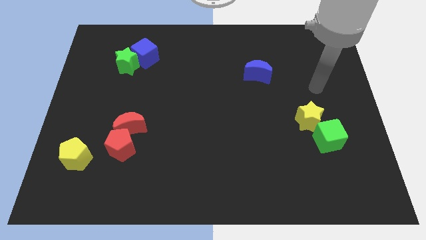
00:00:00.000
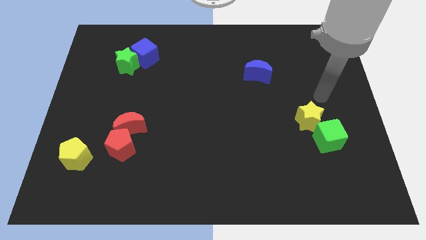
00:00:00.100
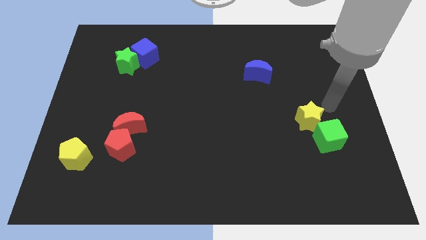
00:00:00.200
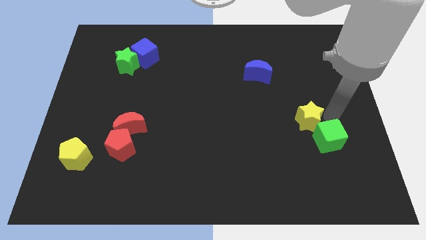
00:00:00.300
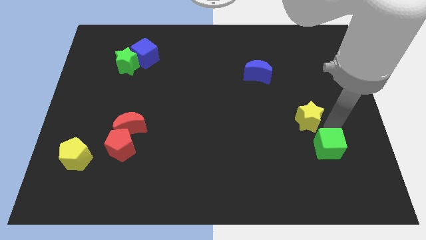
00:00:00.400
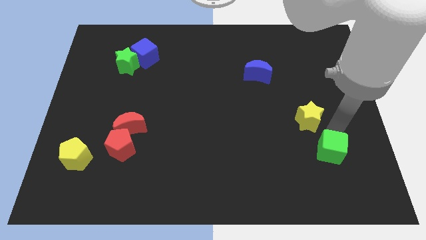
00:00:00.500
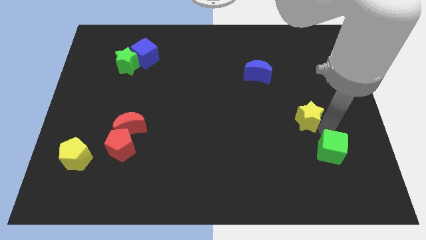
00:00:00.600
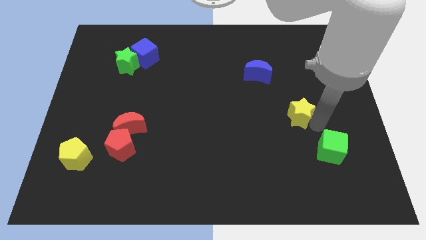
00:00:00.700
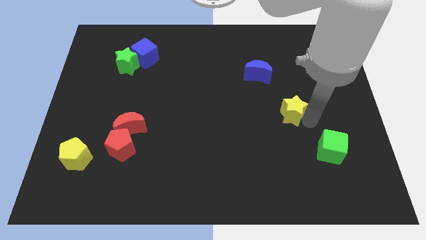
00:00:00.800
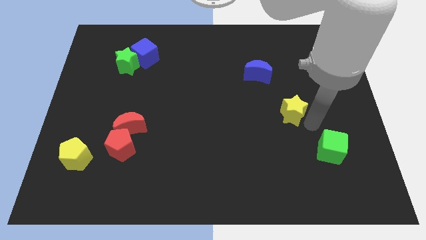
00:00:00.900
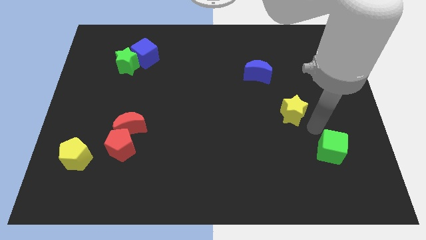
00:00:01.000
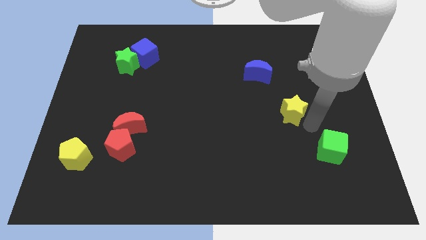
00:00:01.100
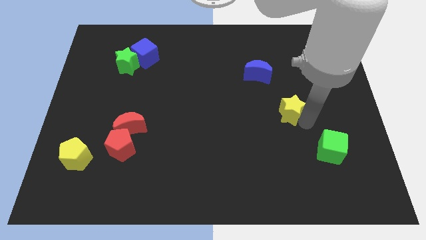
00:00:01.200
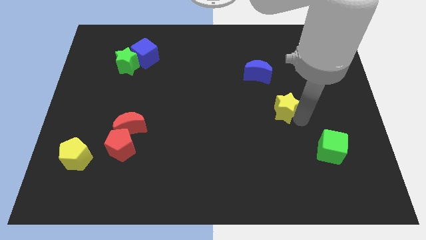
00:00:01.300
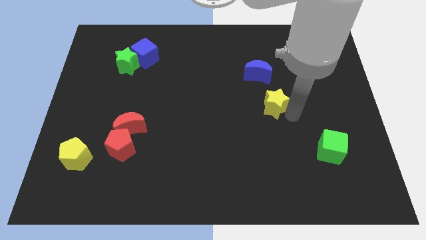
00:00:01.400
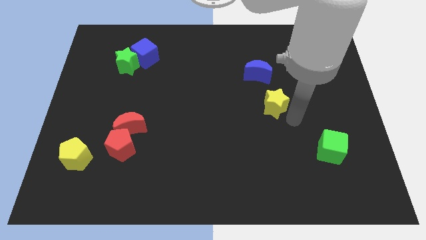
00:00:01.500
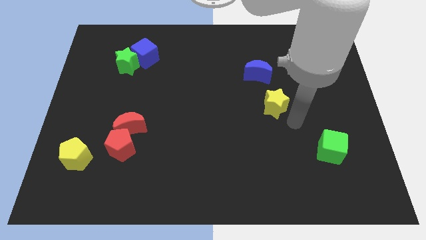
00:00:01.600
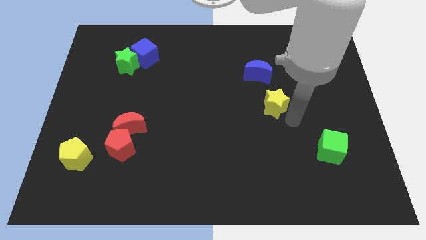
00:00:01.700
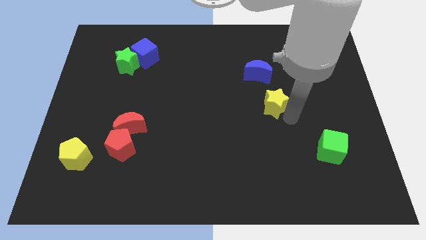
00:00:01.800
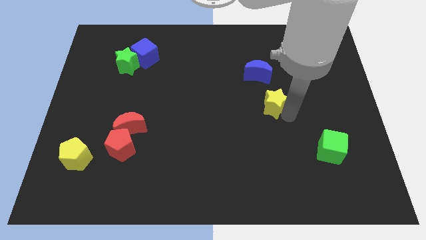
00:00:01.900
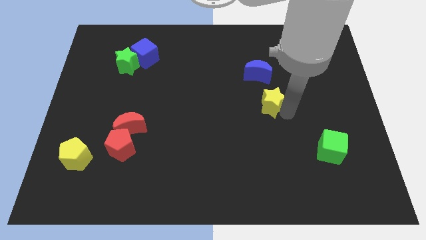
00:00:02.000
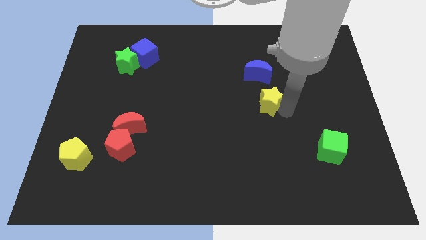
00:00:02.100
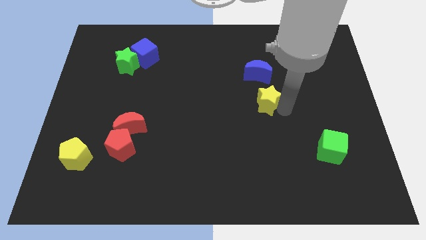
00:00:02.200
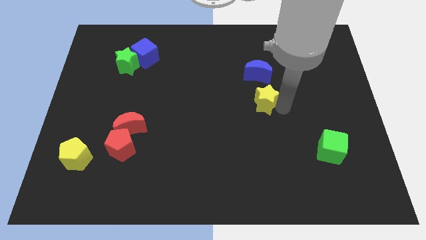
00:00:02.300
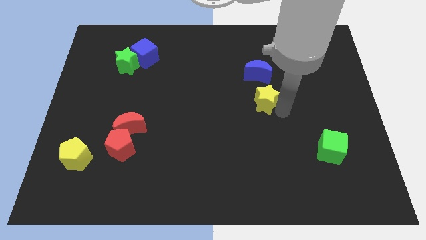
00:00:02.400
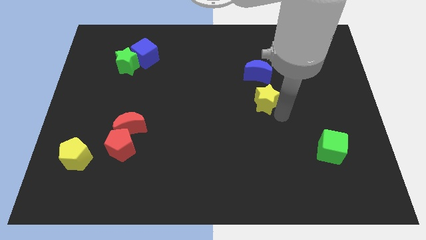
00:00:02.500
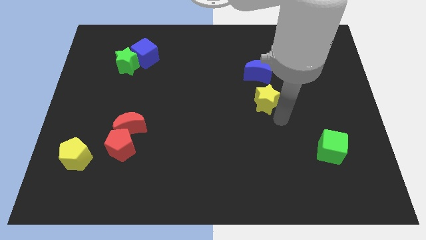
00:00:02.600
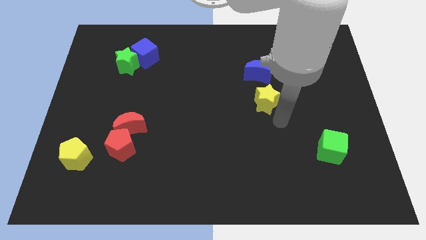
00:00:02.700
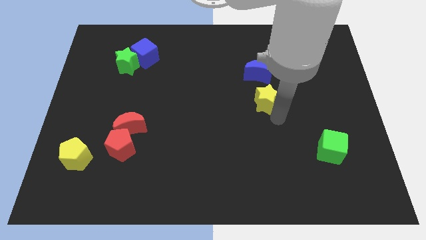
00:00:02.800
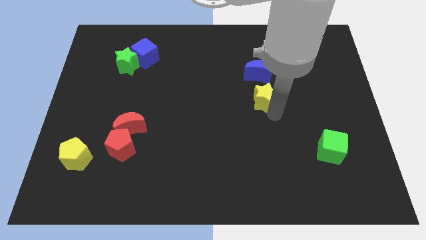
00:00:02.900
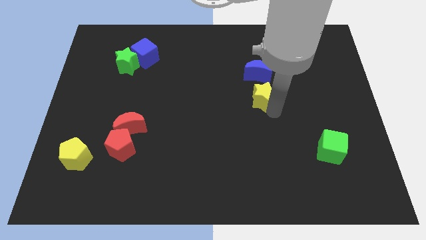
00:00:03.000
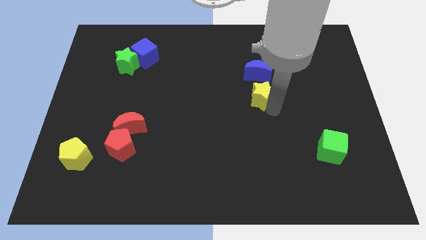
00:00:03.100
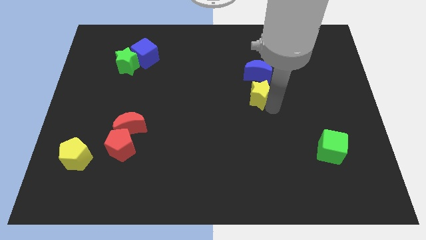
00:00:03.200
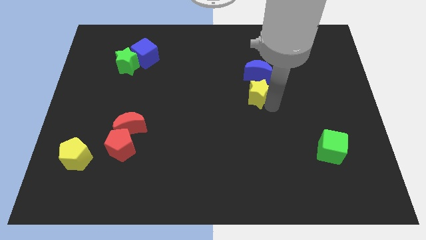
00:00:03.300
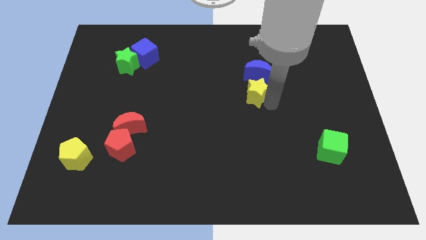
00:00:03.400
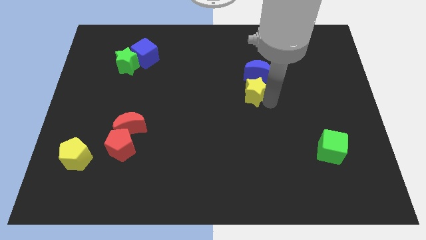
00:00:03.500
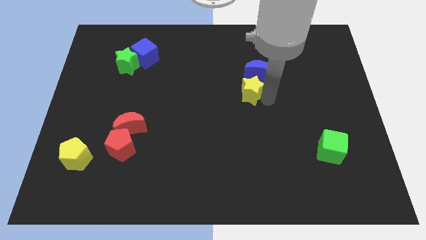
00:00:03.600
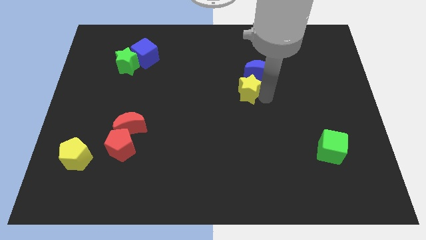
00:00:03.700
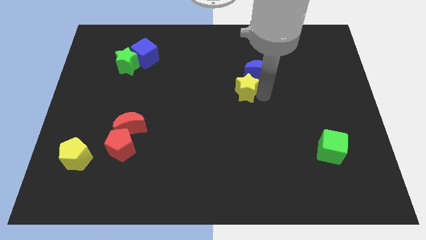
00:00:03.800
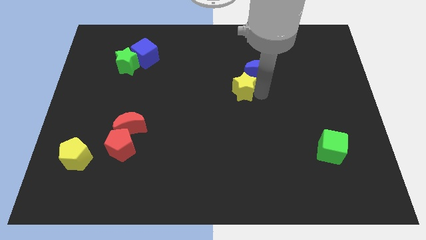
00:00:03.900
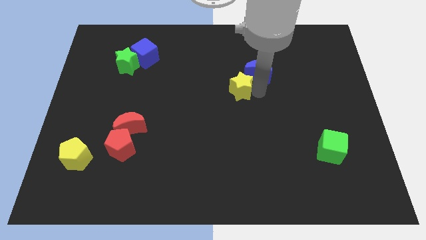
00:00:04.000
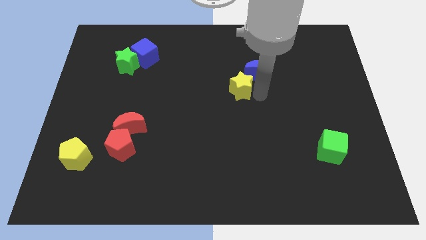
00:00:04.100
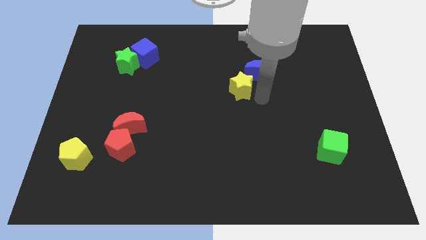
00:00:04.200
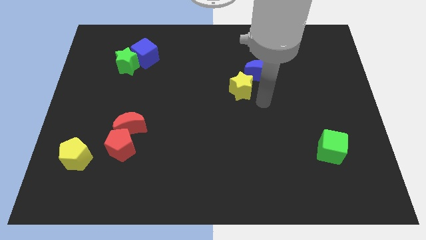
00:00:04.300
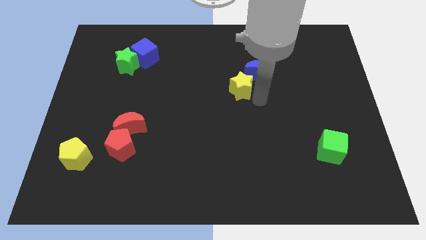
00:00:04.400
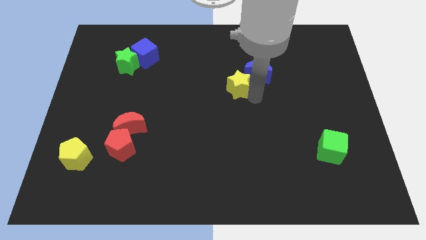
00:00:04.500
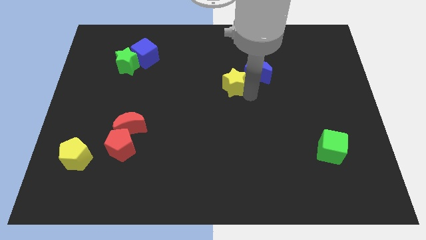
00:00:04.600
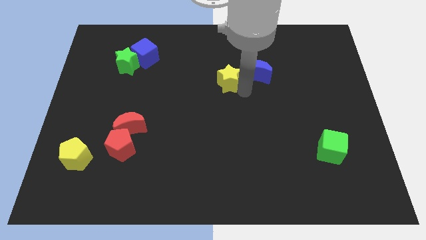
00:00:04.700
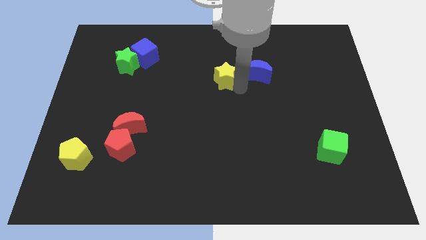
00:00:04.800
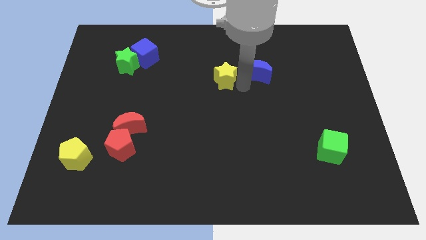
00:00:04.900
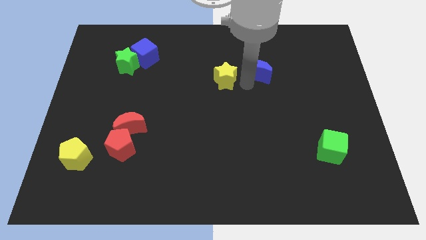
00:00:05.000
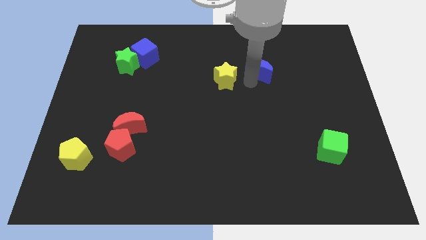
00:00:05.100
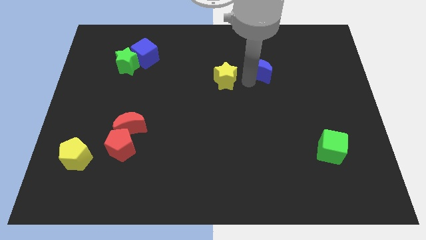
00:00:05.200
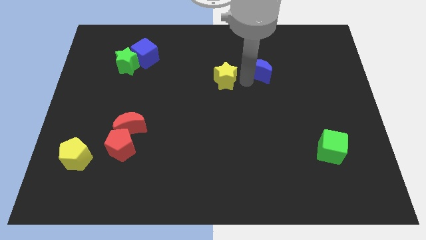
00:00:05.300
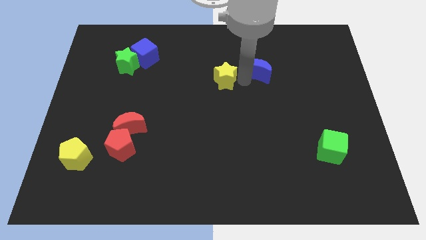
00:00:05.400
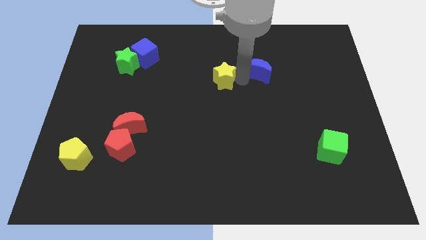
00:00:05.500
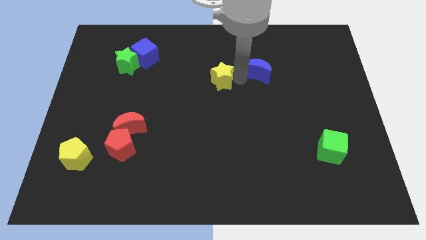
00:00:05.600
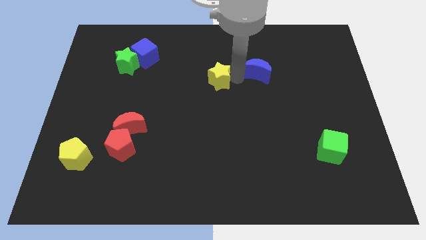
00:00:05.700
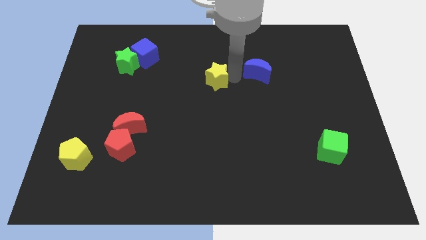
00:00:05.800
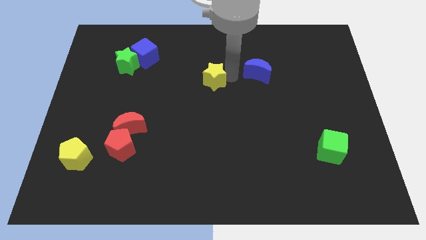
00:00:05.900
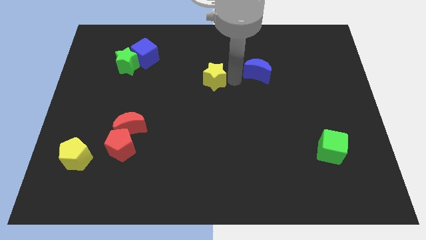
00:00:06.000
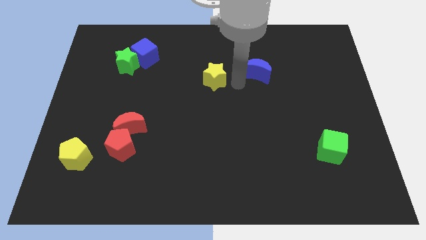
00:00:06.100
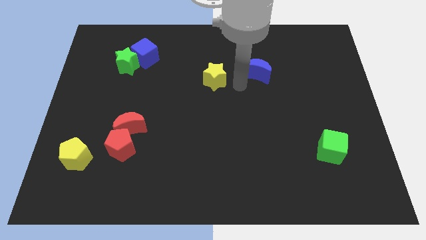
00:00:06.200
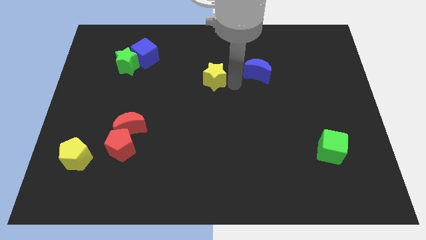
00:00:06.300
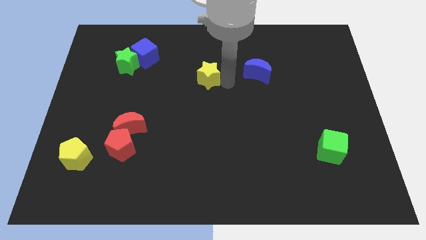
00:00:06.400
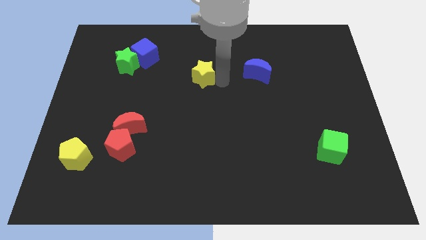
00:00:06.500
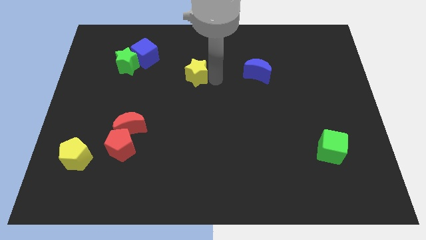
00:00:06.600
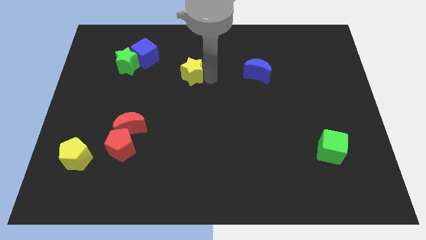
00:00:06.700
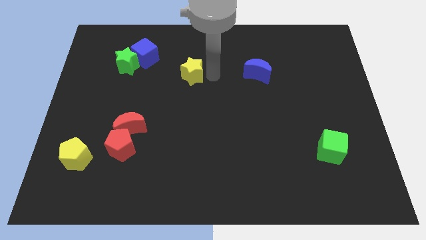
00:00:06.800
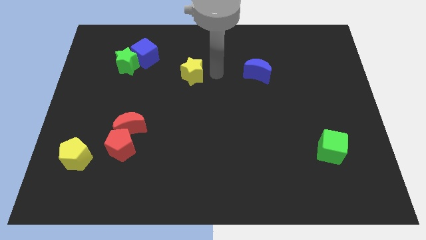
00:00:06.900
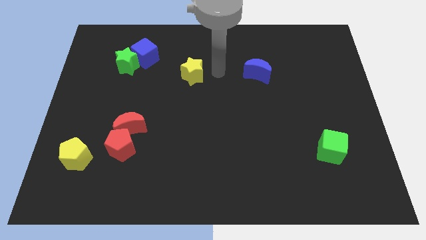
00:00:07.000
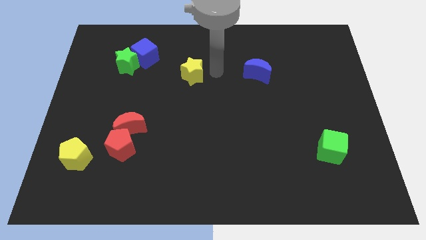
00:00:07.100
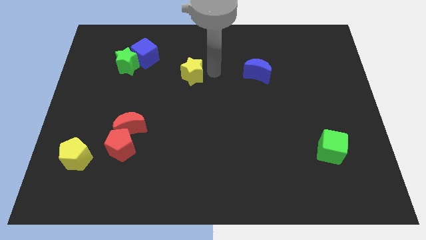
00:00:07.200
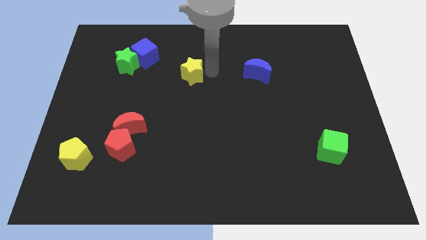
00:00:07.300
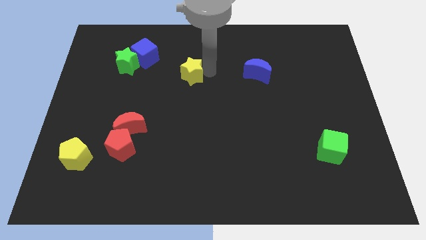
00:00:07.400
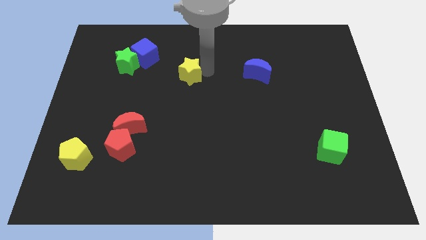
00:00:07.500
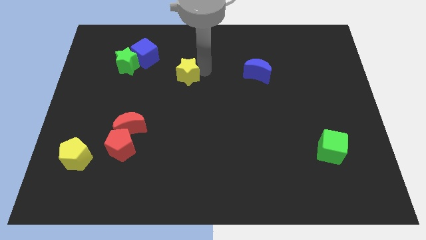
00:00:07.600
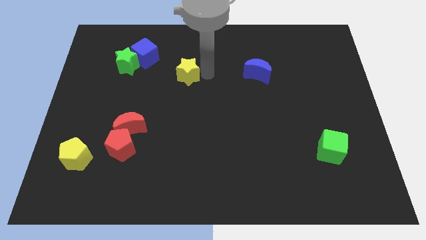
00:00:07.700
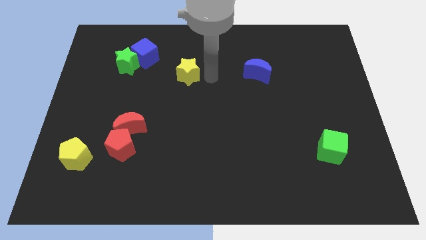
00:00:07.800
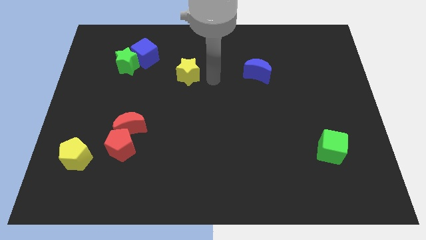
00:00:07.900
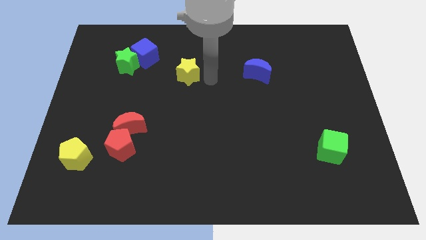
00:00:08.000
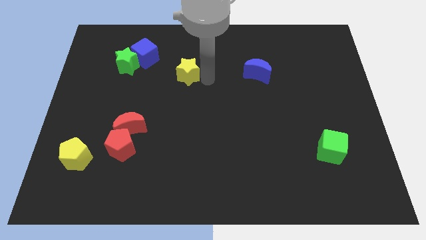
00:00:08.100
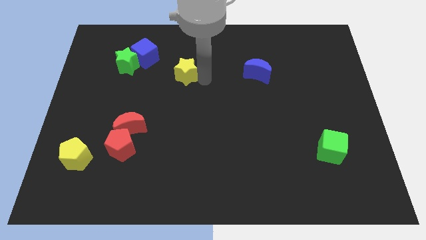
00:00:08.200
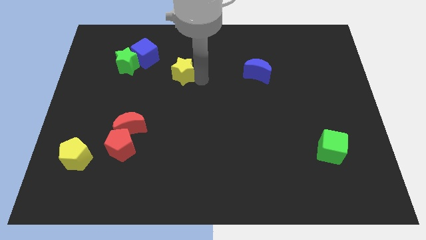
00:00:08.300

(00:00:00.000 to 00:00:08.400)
slide the yellow star to the bottom right of the blue cube
